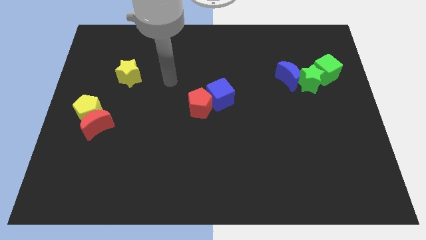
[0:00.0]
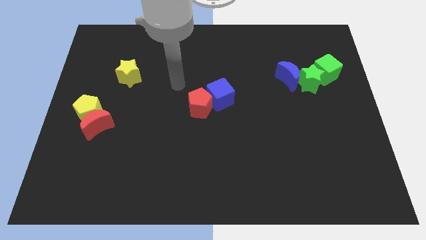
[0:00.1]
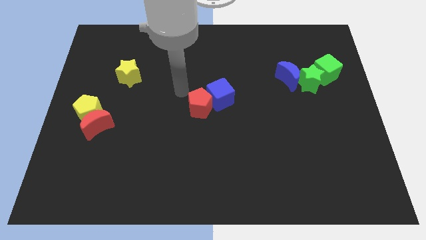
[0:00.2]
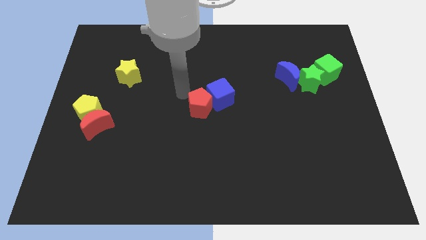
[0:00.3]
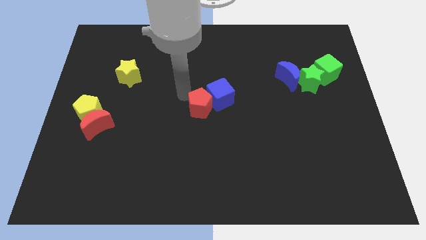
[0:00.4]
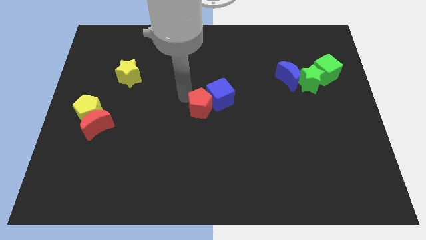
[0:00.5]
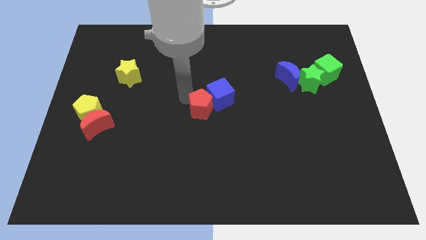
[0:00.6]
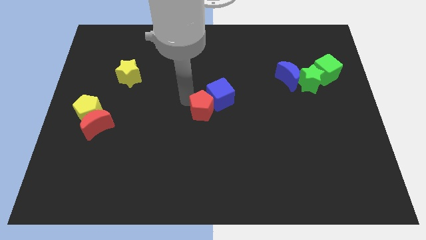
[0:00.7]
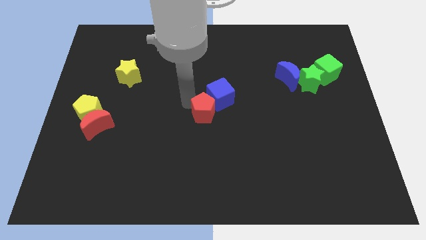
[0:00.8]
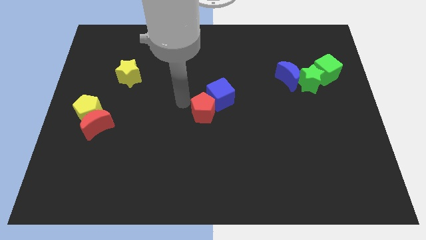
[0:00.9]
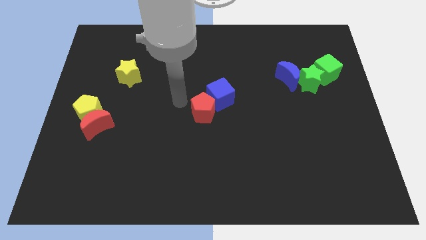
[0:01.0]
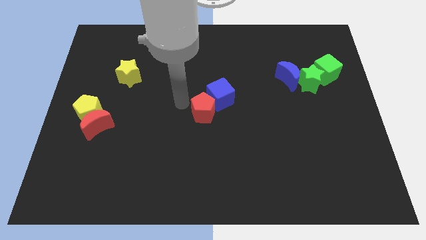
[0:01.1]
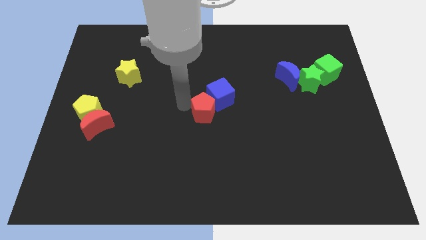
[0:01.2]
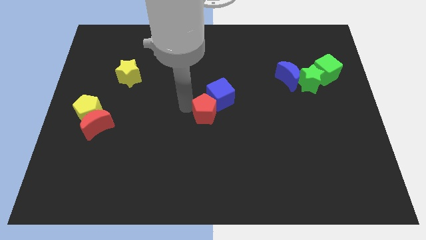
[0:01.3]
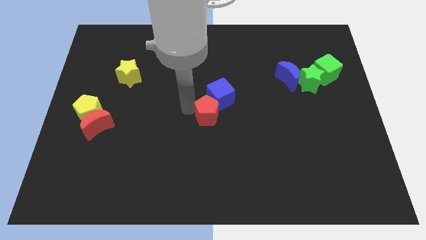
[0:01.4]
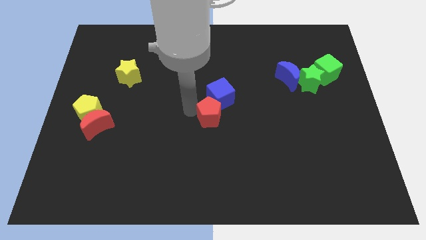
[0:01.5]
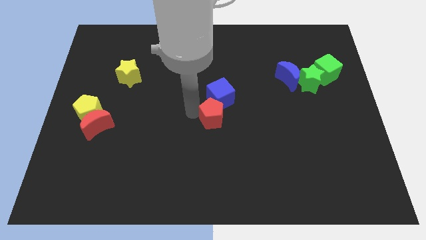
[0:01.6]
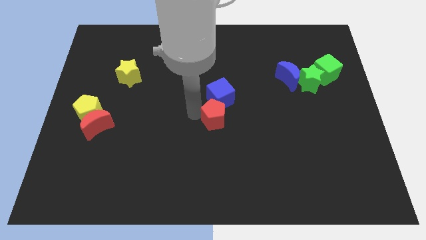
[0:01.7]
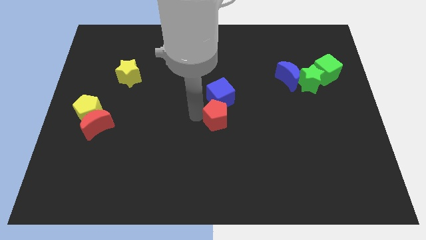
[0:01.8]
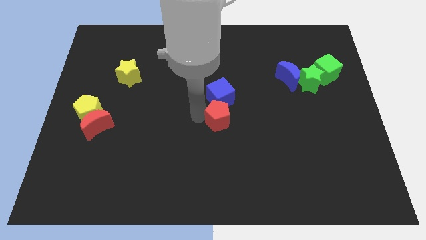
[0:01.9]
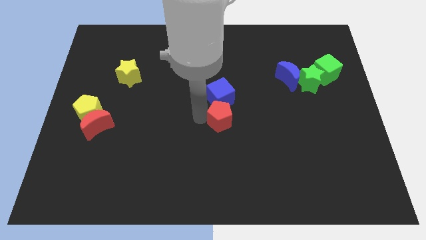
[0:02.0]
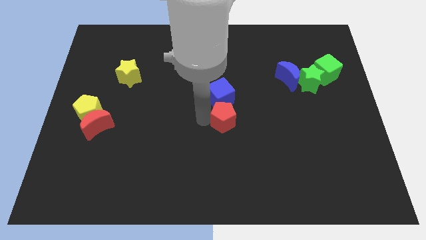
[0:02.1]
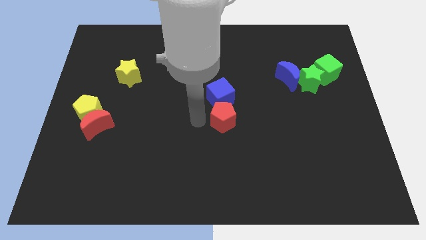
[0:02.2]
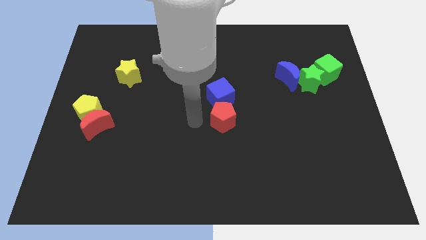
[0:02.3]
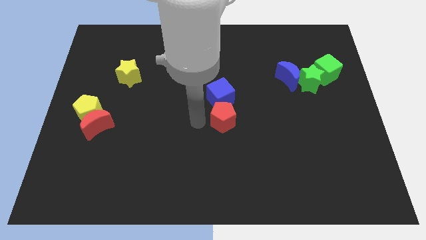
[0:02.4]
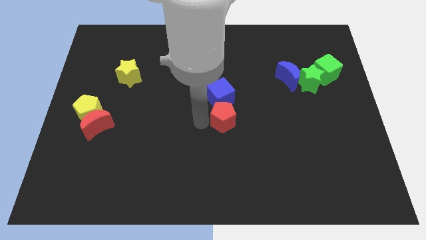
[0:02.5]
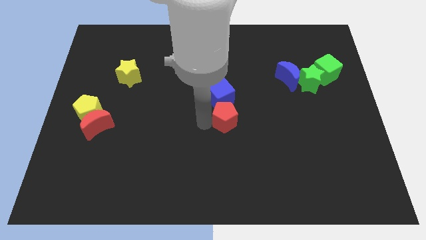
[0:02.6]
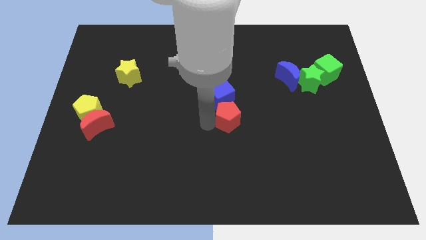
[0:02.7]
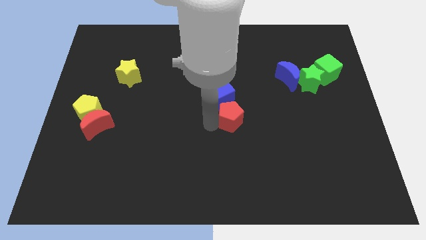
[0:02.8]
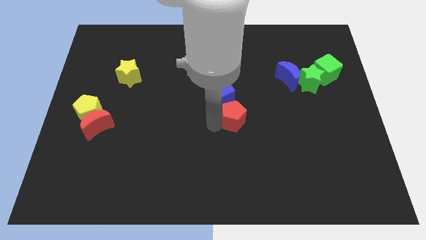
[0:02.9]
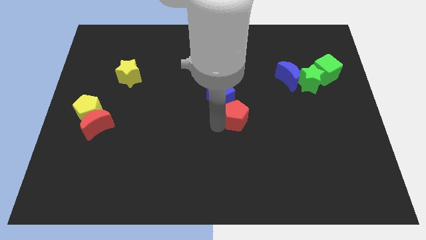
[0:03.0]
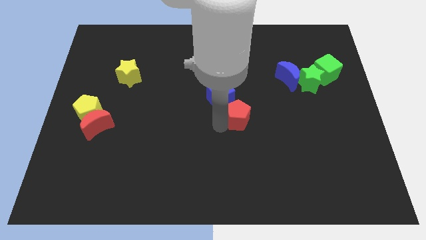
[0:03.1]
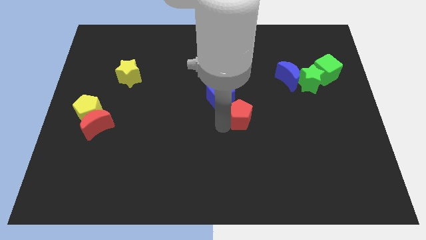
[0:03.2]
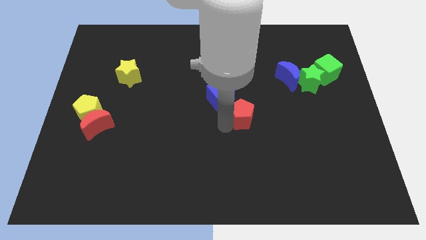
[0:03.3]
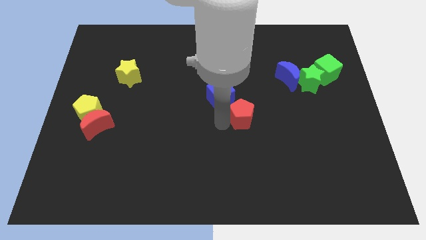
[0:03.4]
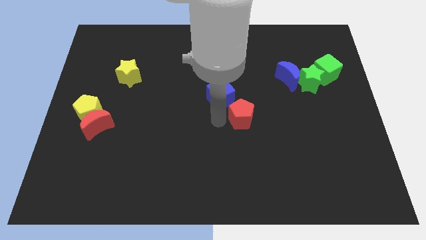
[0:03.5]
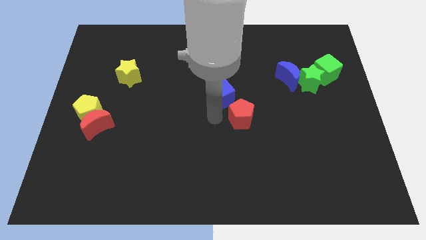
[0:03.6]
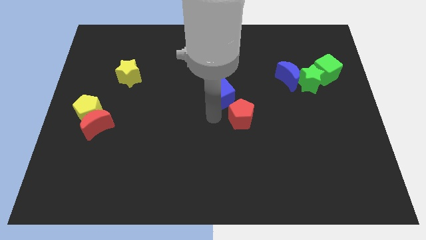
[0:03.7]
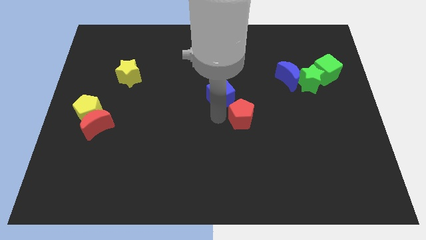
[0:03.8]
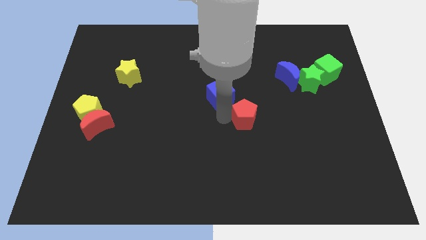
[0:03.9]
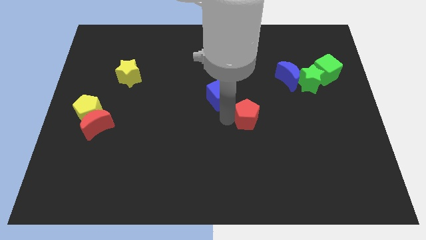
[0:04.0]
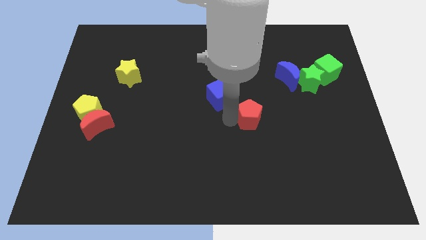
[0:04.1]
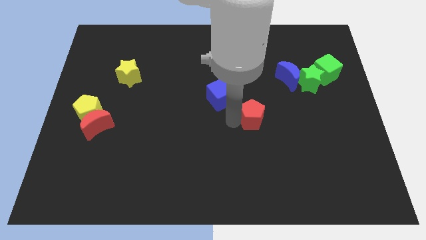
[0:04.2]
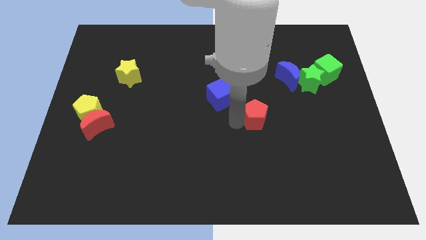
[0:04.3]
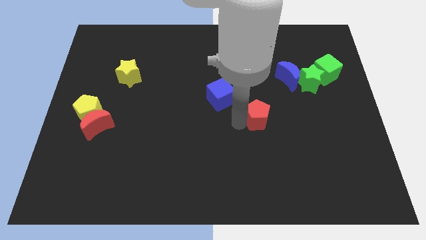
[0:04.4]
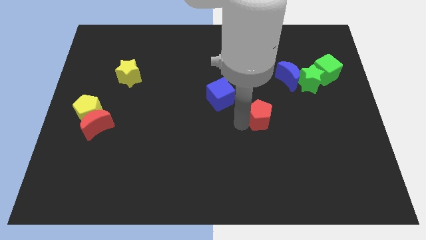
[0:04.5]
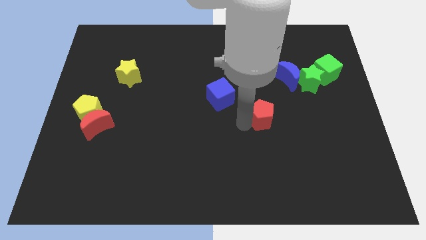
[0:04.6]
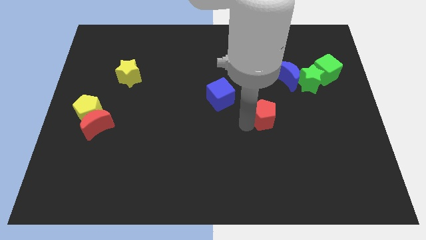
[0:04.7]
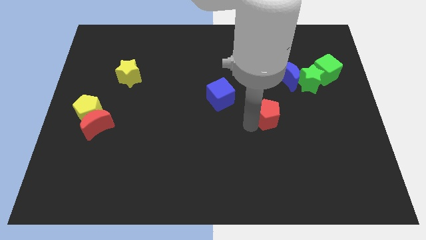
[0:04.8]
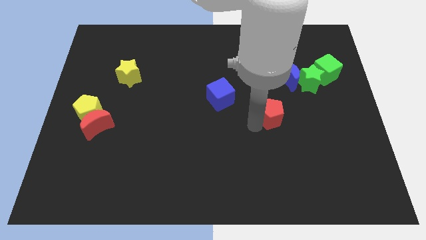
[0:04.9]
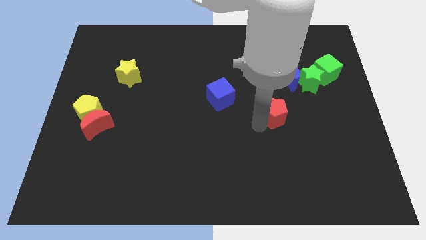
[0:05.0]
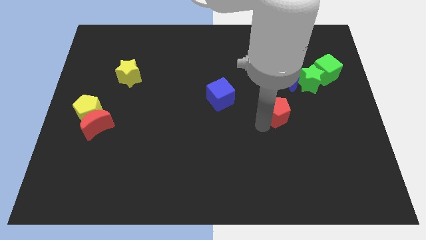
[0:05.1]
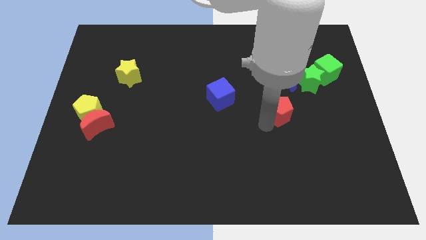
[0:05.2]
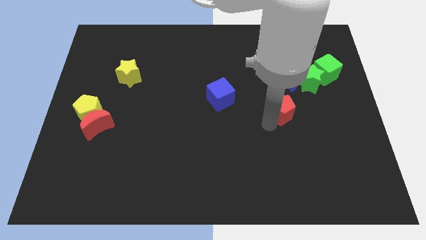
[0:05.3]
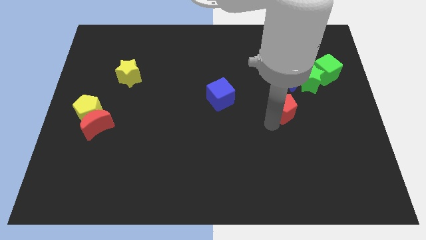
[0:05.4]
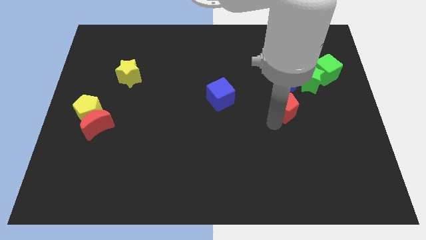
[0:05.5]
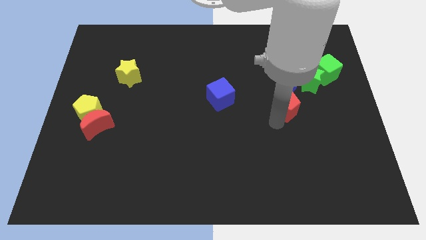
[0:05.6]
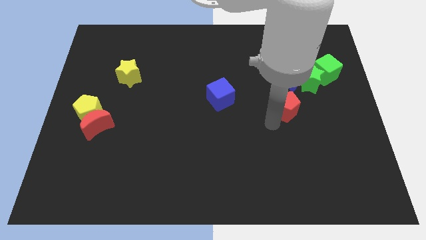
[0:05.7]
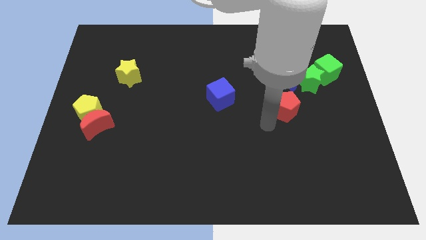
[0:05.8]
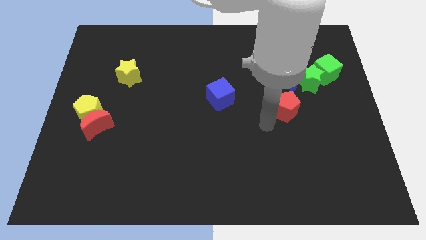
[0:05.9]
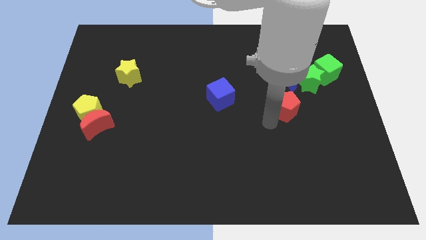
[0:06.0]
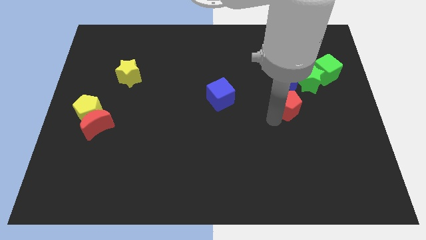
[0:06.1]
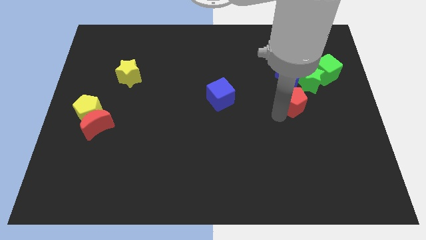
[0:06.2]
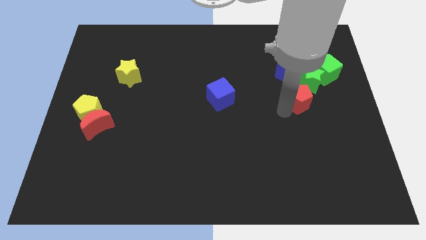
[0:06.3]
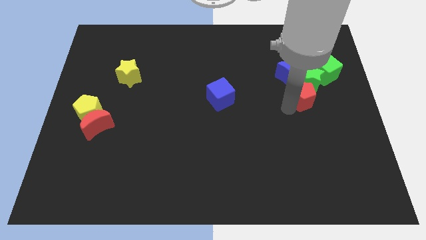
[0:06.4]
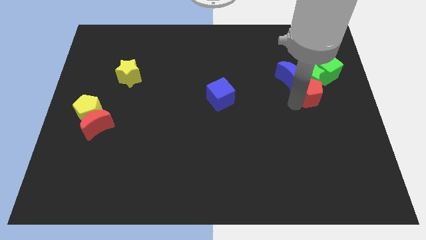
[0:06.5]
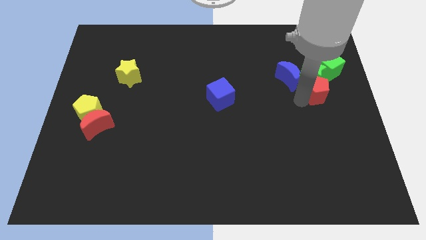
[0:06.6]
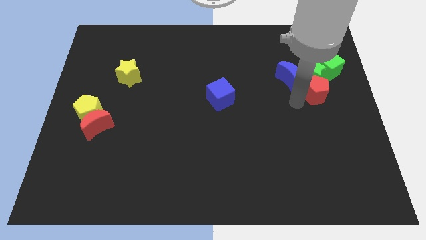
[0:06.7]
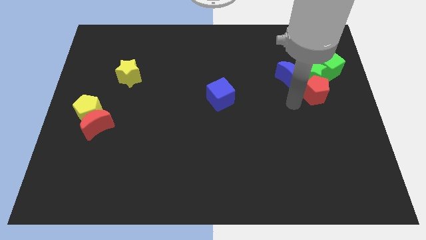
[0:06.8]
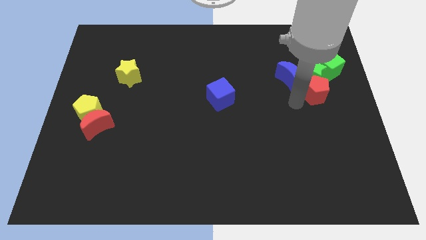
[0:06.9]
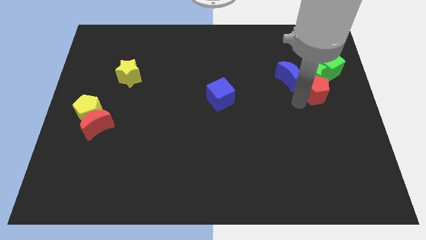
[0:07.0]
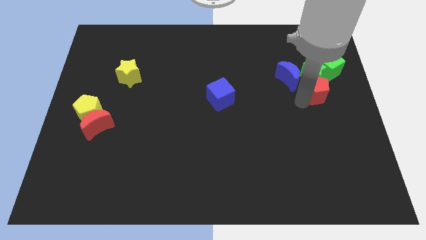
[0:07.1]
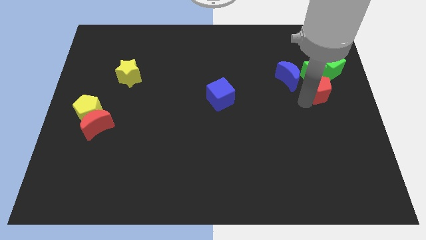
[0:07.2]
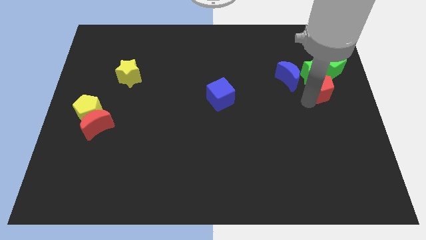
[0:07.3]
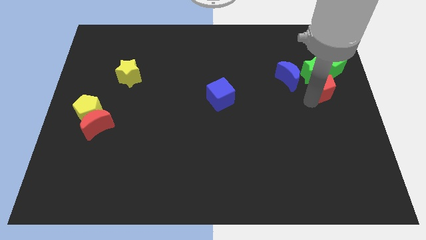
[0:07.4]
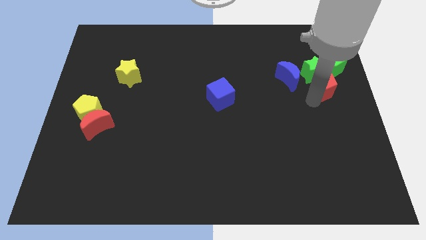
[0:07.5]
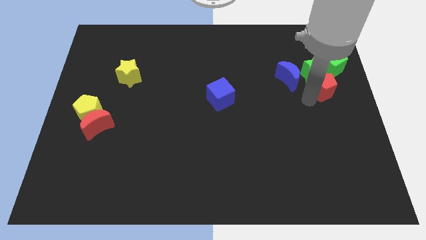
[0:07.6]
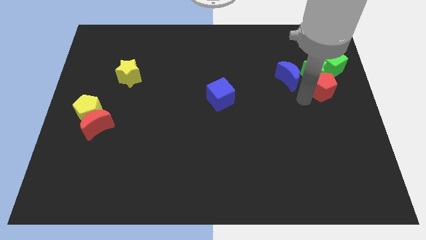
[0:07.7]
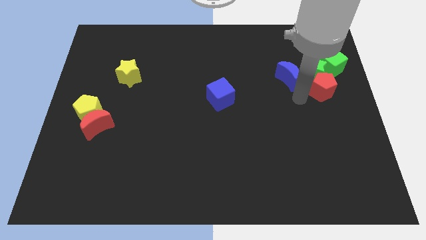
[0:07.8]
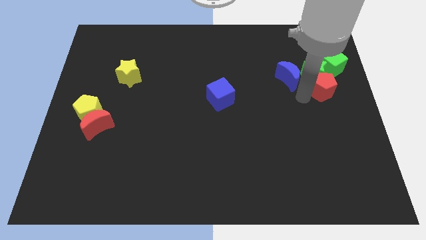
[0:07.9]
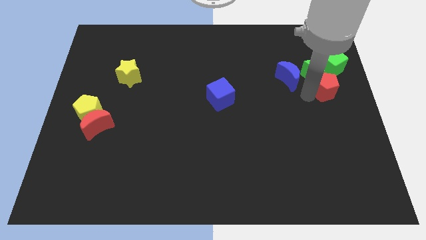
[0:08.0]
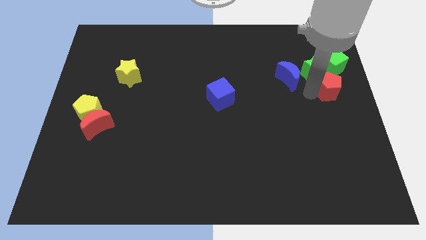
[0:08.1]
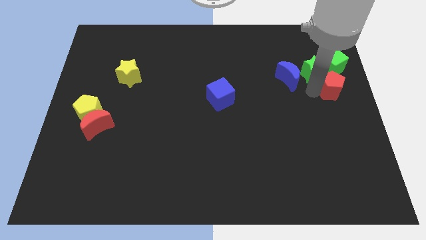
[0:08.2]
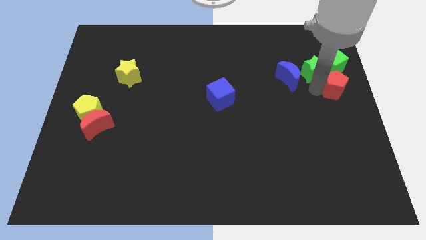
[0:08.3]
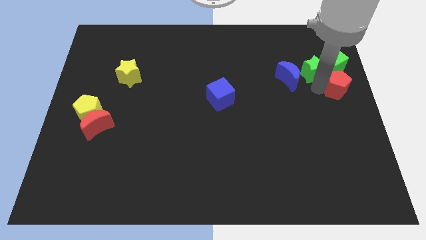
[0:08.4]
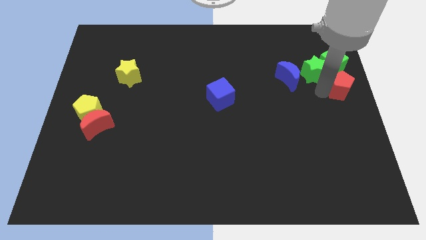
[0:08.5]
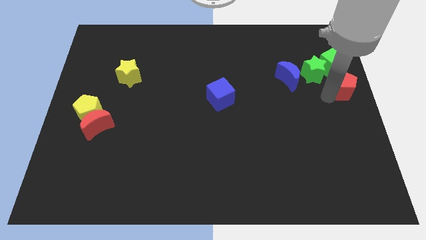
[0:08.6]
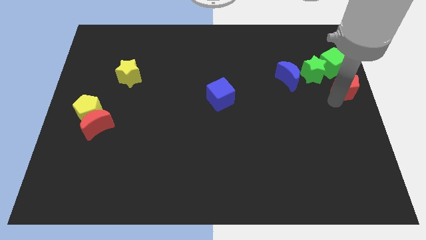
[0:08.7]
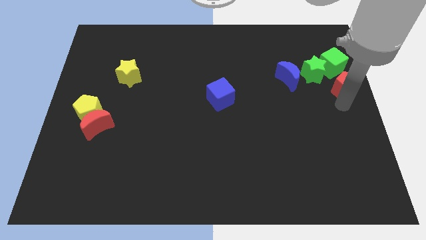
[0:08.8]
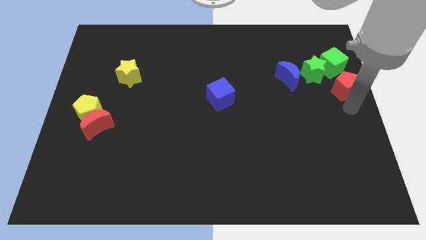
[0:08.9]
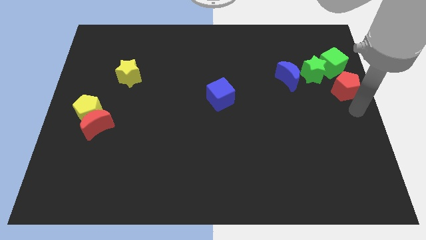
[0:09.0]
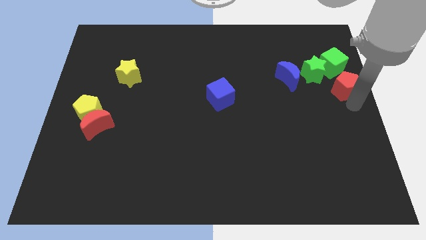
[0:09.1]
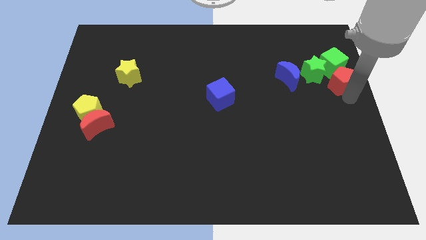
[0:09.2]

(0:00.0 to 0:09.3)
push the red pentagon towards the green cube
